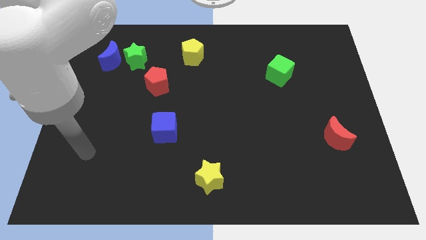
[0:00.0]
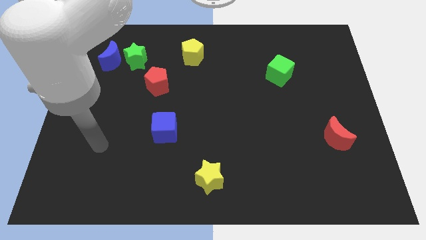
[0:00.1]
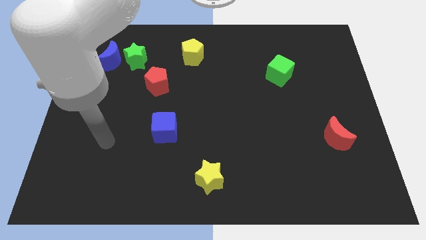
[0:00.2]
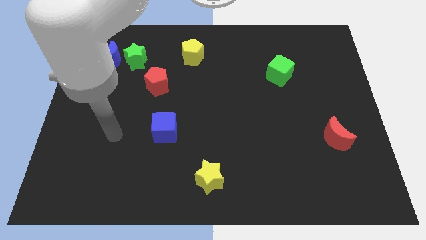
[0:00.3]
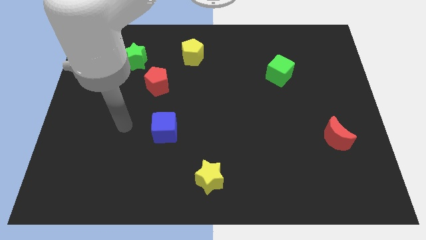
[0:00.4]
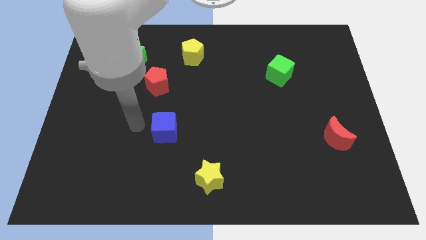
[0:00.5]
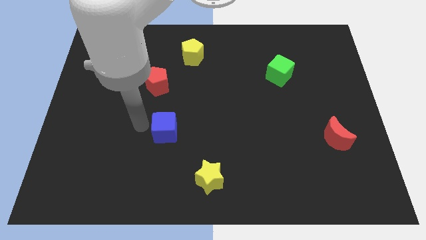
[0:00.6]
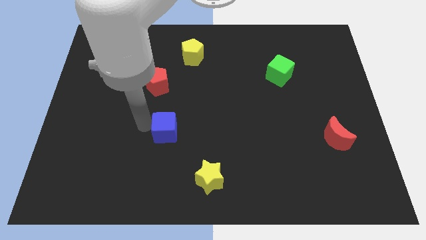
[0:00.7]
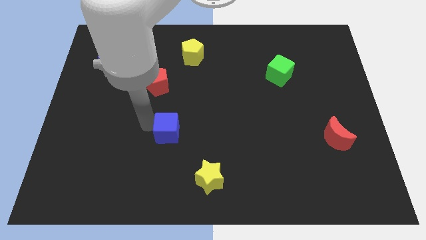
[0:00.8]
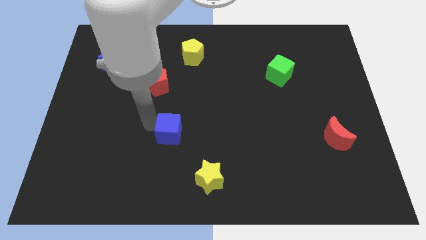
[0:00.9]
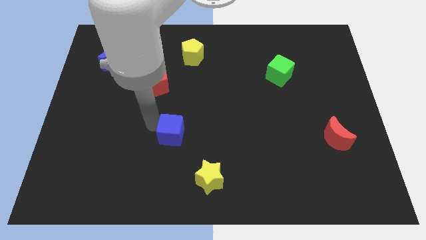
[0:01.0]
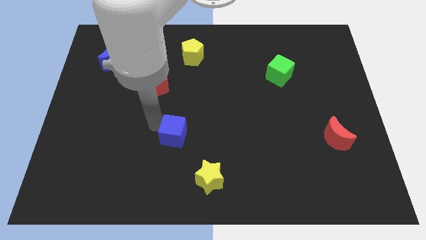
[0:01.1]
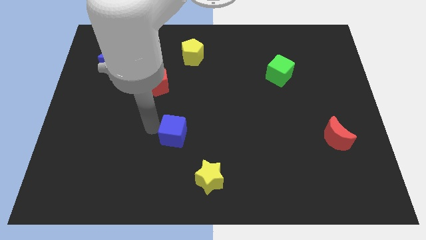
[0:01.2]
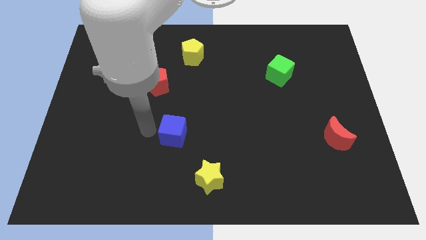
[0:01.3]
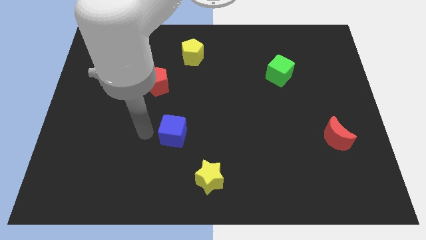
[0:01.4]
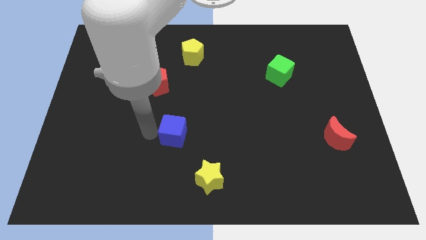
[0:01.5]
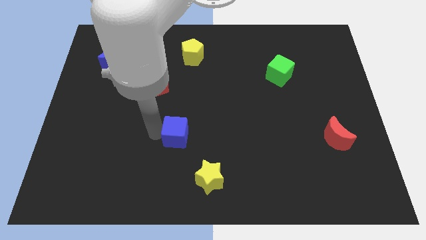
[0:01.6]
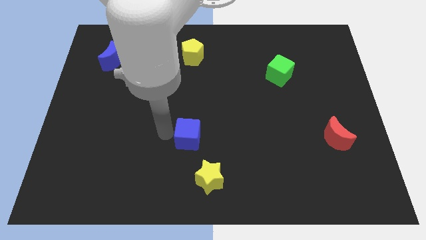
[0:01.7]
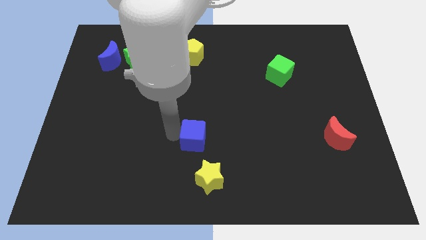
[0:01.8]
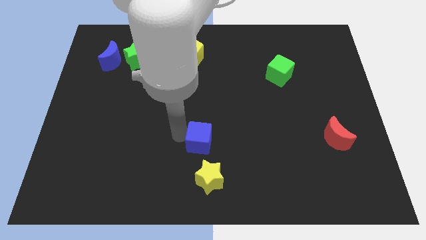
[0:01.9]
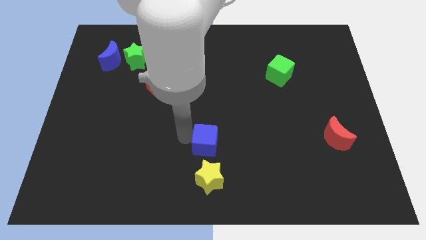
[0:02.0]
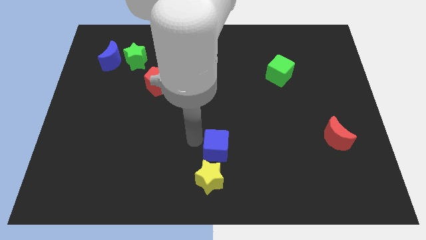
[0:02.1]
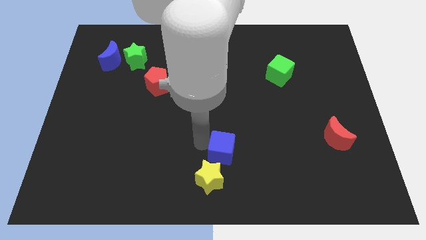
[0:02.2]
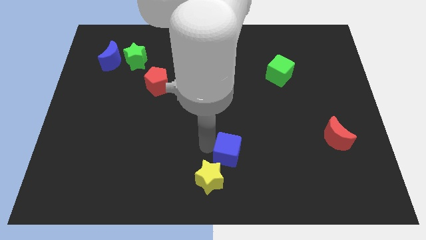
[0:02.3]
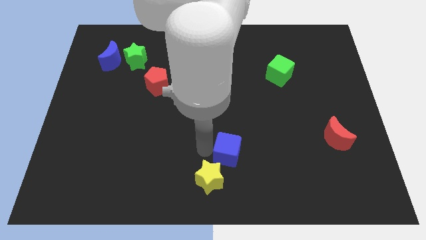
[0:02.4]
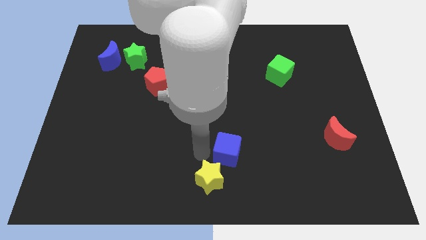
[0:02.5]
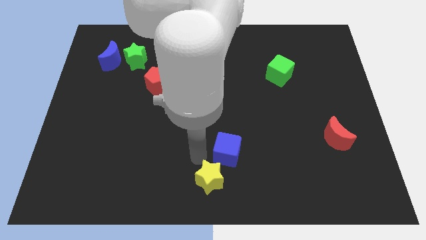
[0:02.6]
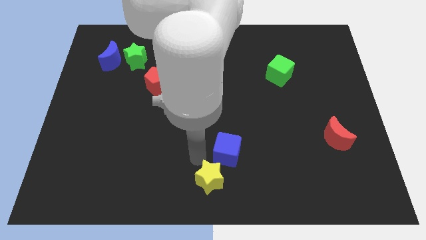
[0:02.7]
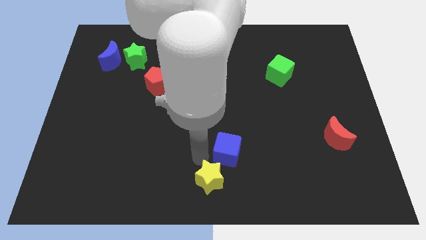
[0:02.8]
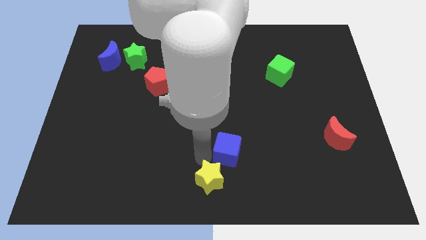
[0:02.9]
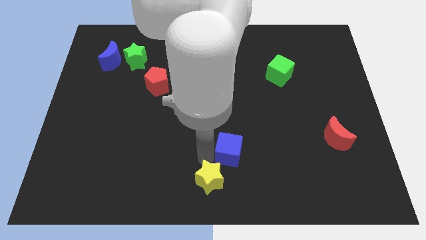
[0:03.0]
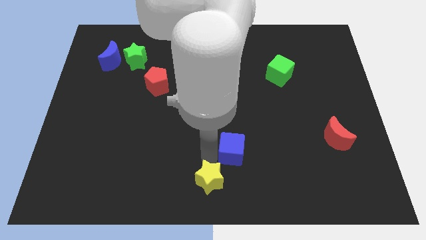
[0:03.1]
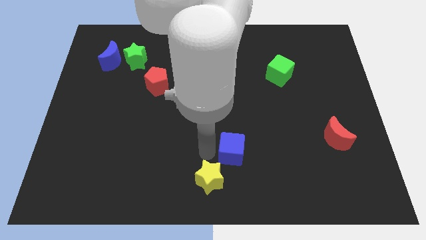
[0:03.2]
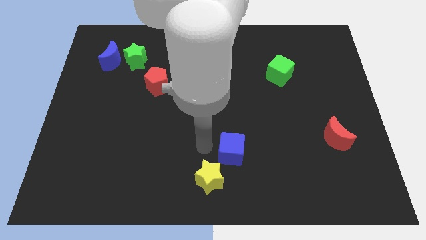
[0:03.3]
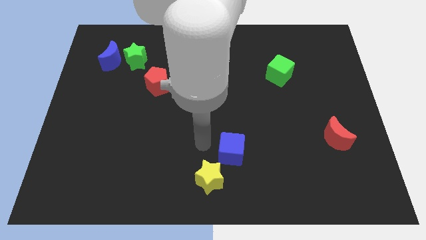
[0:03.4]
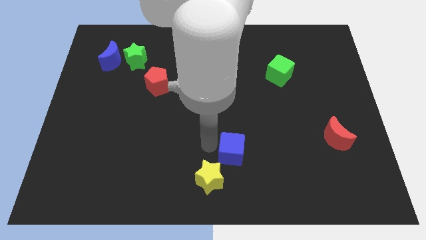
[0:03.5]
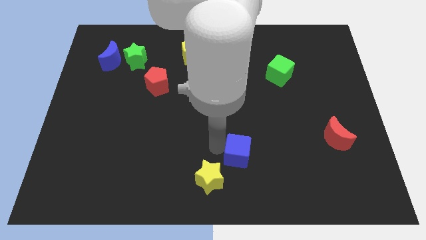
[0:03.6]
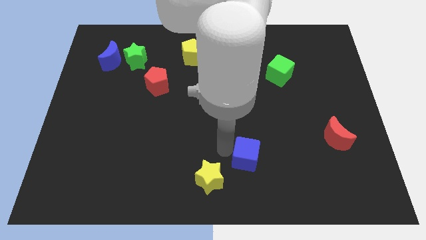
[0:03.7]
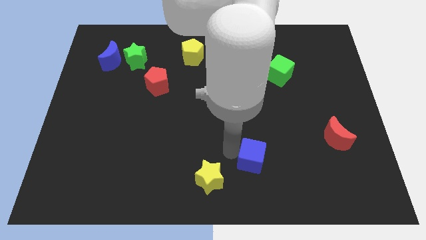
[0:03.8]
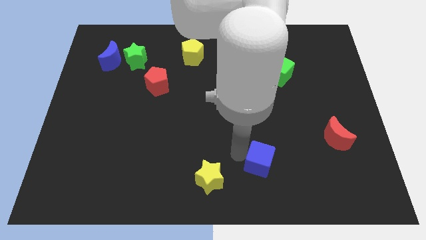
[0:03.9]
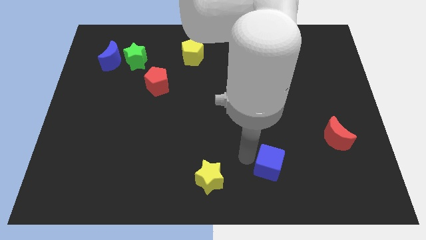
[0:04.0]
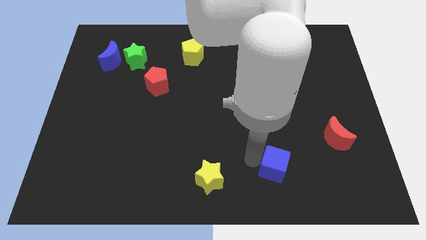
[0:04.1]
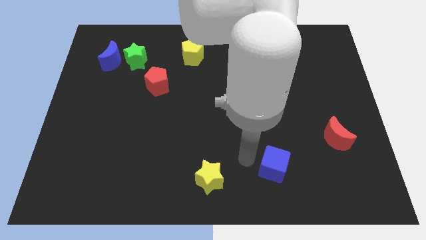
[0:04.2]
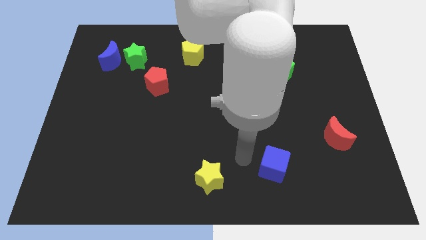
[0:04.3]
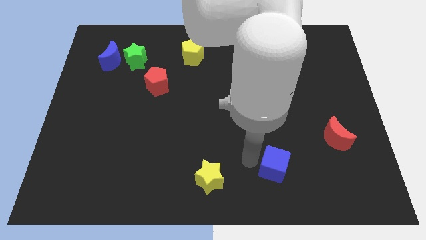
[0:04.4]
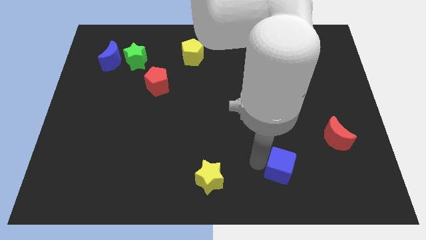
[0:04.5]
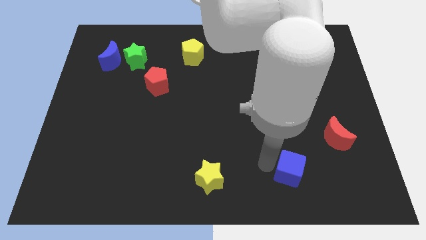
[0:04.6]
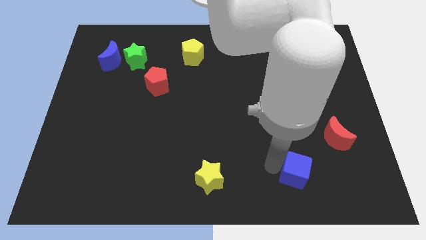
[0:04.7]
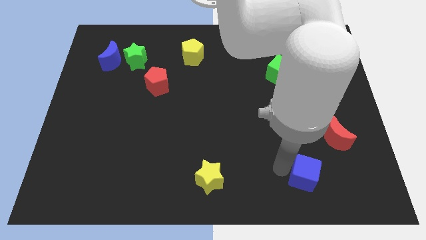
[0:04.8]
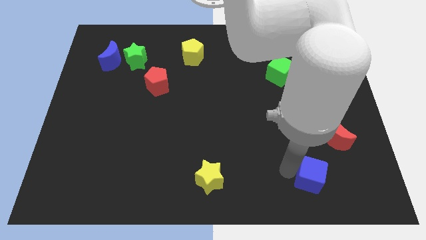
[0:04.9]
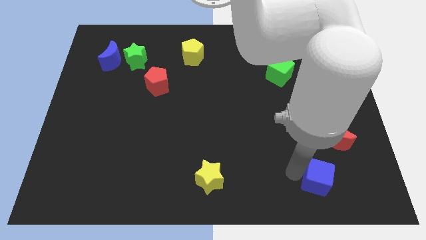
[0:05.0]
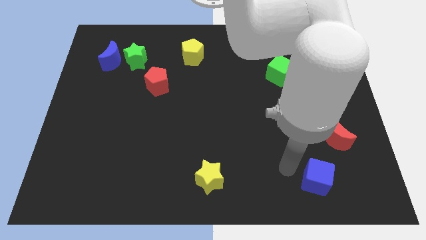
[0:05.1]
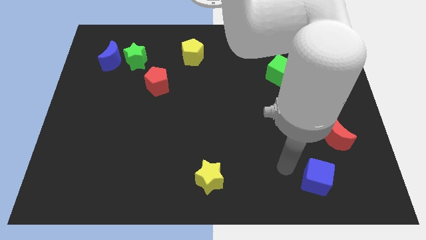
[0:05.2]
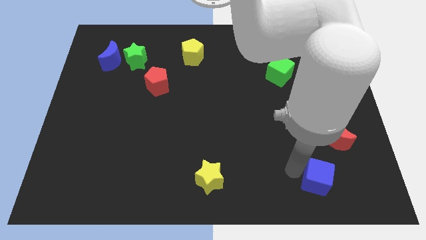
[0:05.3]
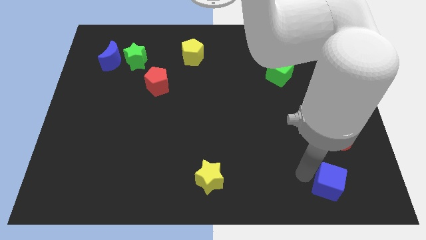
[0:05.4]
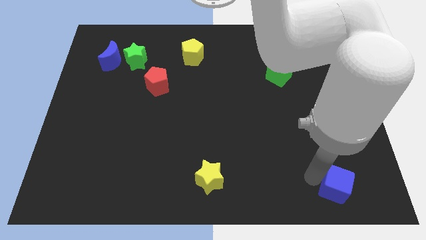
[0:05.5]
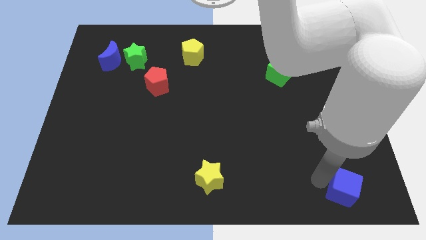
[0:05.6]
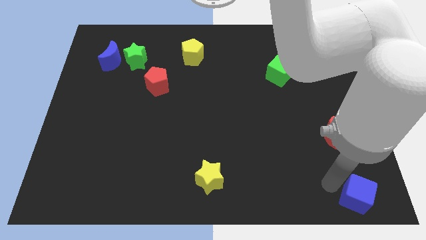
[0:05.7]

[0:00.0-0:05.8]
put the blue cube to the bottom right corner
